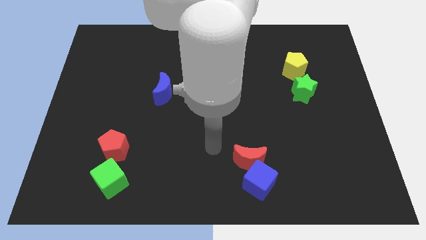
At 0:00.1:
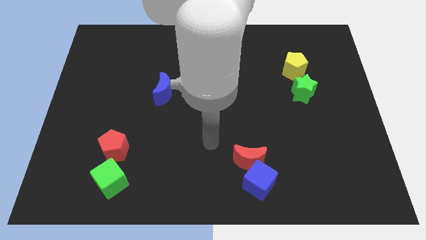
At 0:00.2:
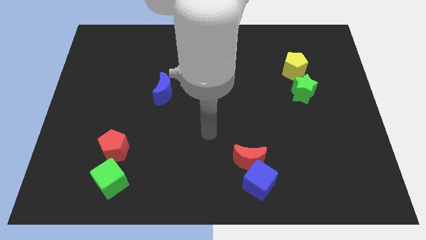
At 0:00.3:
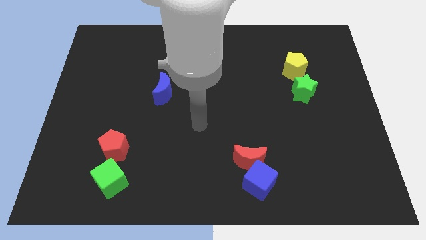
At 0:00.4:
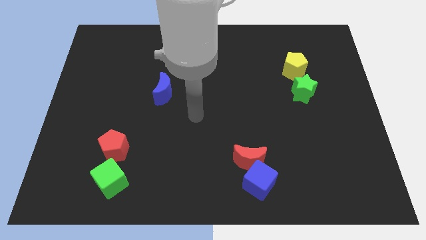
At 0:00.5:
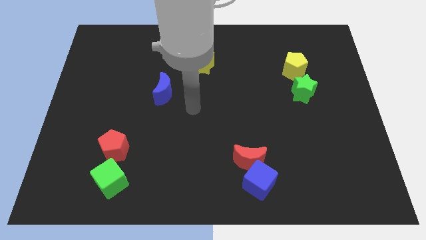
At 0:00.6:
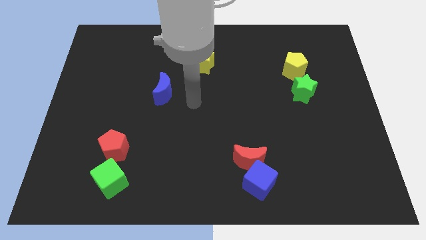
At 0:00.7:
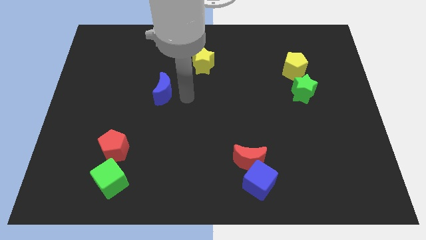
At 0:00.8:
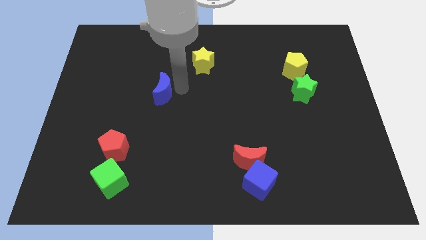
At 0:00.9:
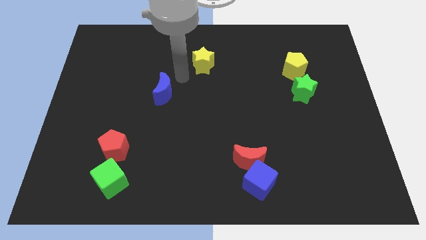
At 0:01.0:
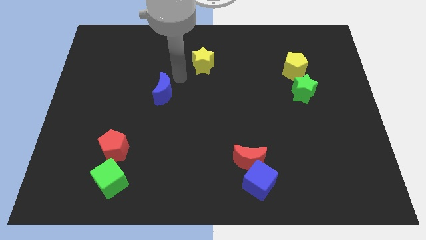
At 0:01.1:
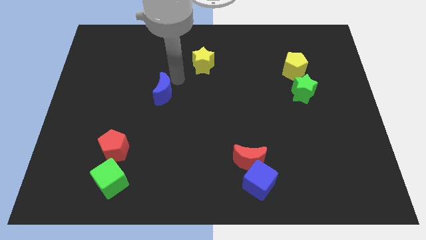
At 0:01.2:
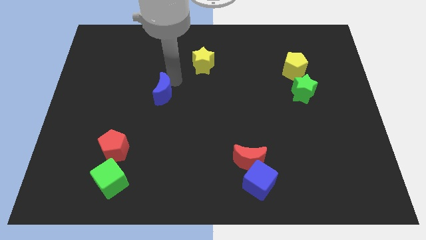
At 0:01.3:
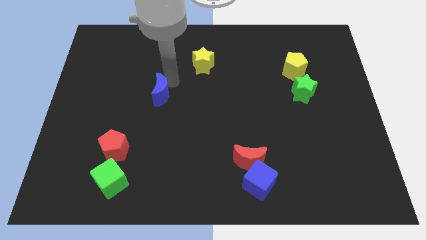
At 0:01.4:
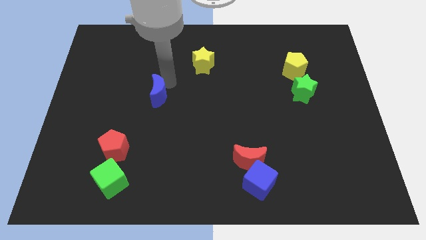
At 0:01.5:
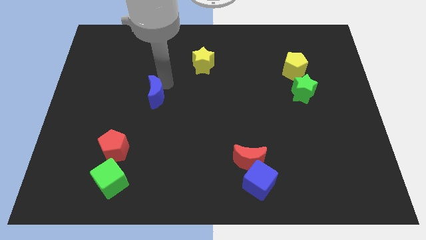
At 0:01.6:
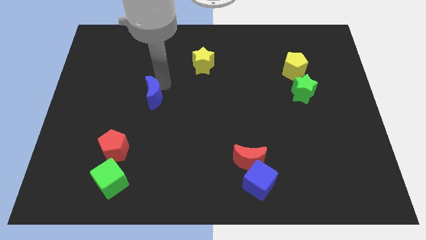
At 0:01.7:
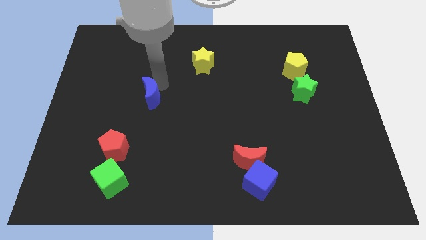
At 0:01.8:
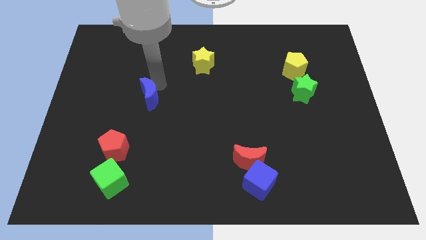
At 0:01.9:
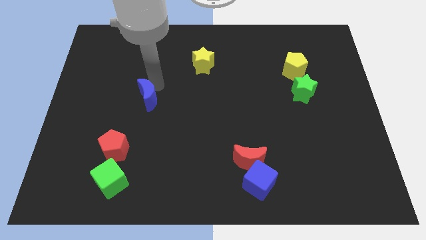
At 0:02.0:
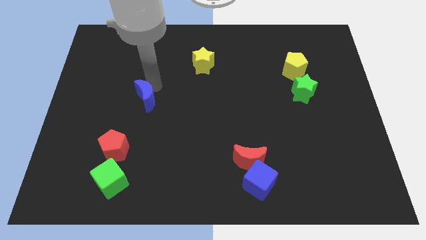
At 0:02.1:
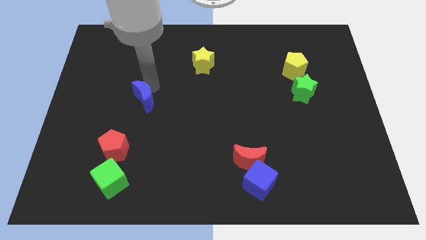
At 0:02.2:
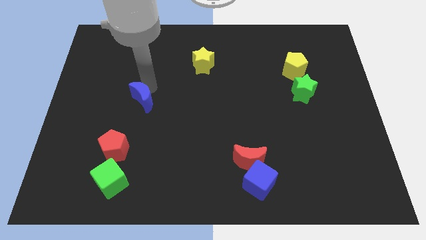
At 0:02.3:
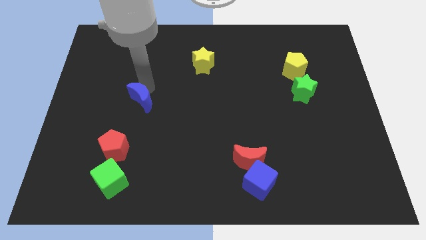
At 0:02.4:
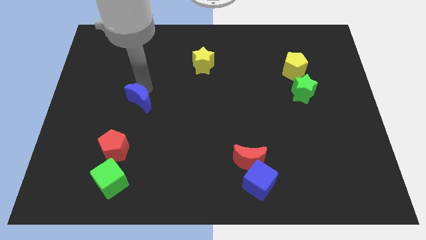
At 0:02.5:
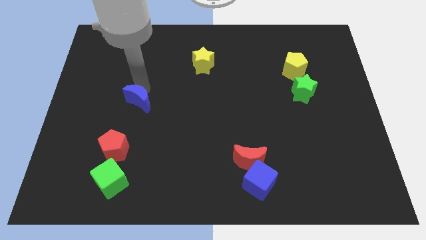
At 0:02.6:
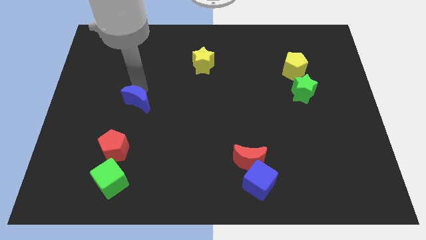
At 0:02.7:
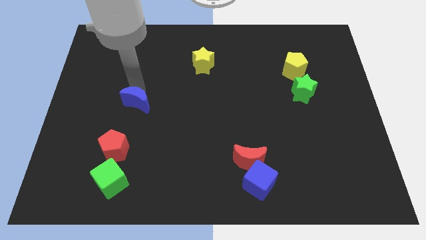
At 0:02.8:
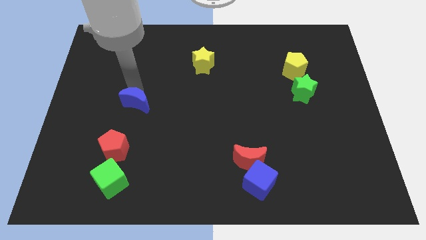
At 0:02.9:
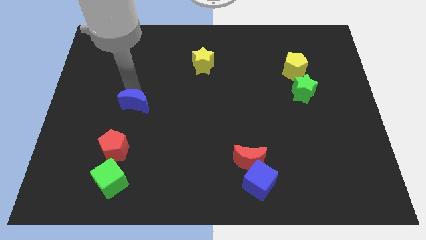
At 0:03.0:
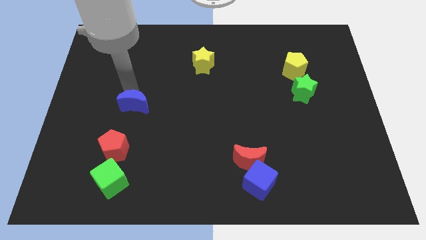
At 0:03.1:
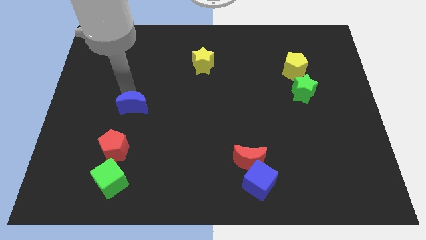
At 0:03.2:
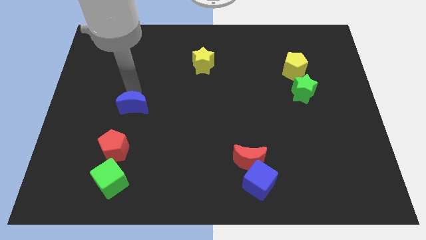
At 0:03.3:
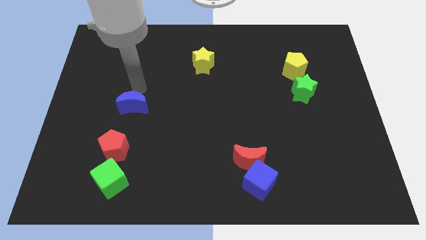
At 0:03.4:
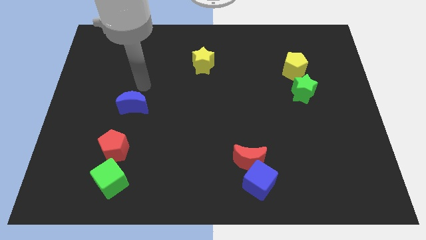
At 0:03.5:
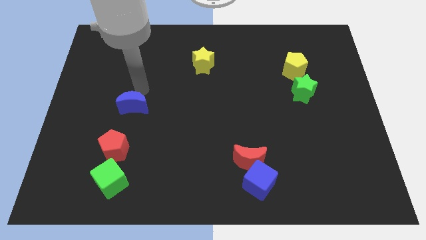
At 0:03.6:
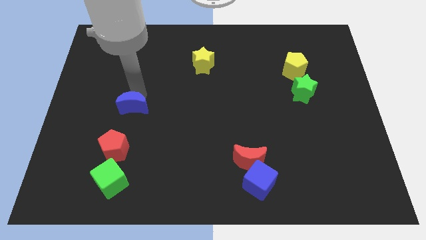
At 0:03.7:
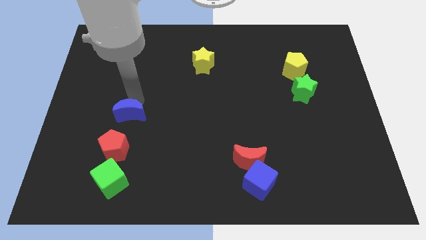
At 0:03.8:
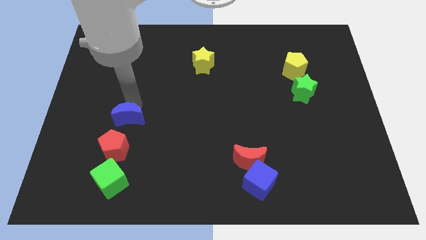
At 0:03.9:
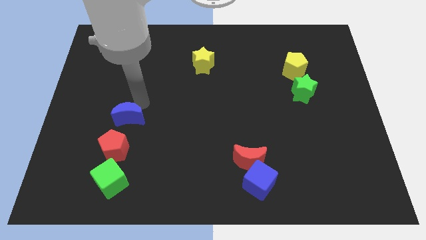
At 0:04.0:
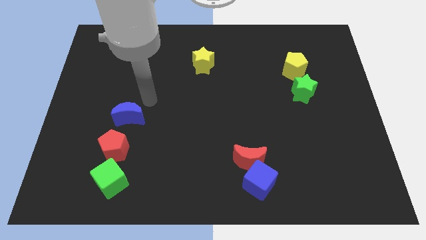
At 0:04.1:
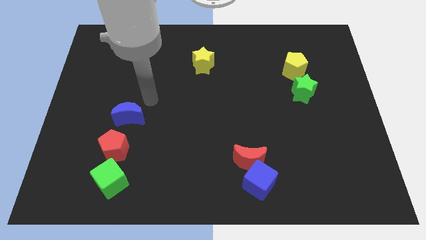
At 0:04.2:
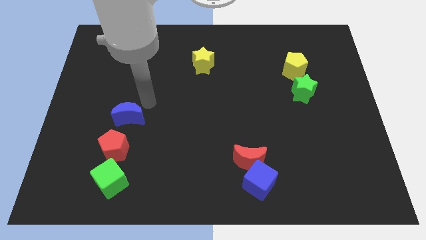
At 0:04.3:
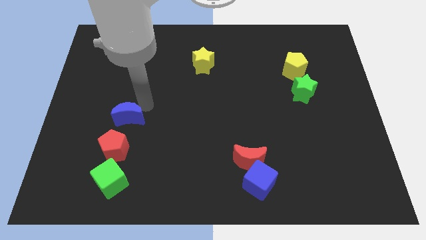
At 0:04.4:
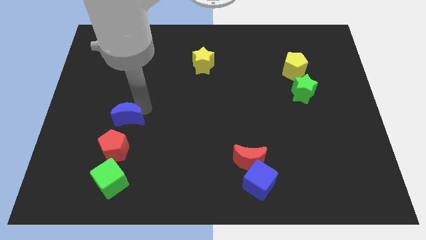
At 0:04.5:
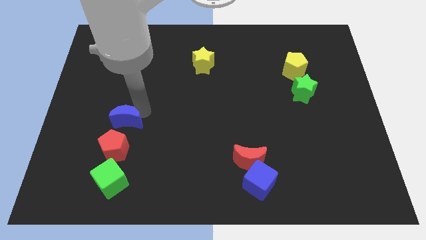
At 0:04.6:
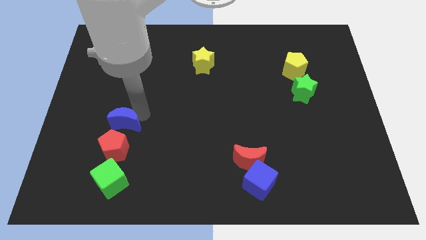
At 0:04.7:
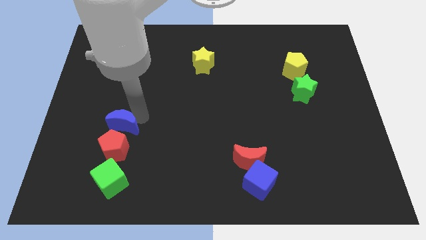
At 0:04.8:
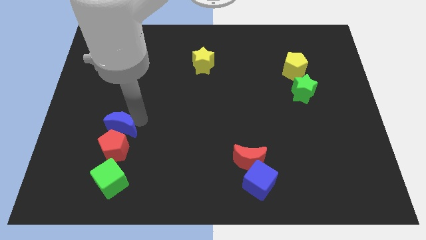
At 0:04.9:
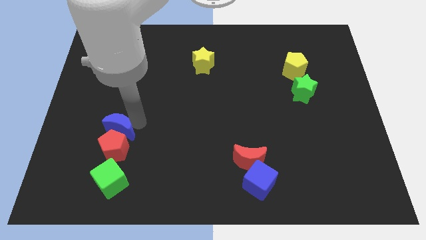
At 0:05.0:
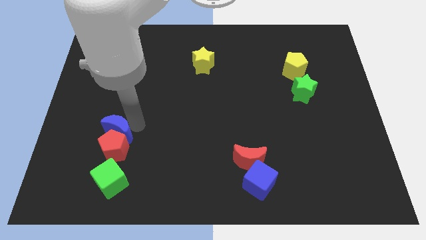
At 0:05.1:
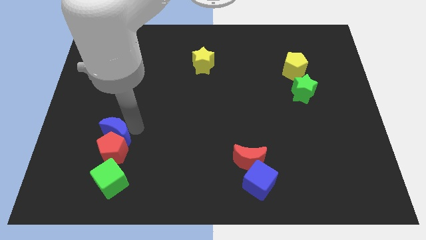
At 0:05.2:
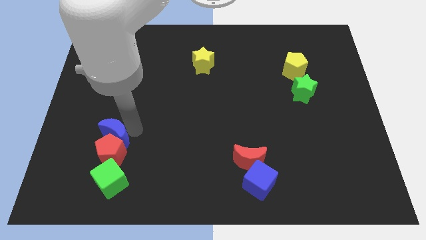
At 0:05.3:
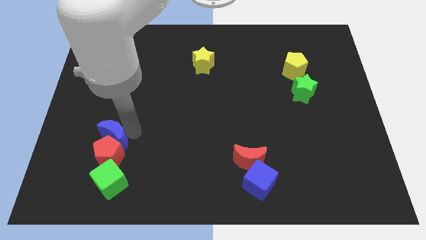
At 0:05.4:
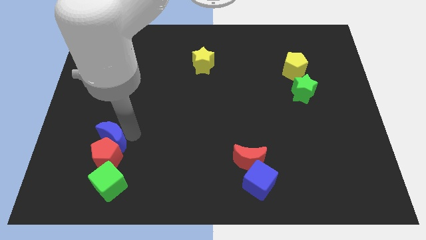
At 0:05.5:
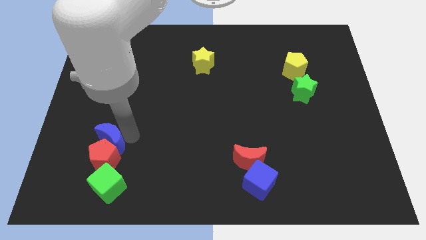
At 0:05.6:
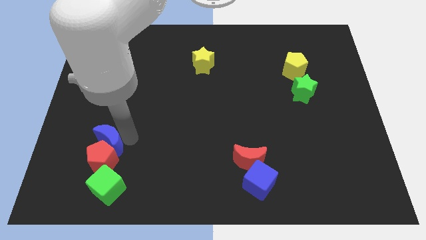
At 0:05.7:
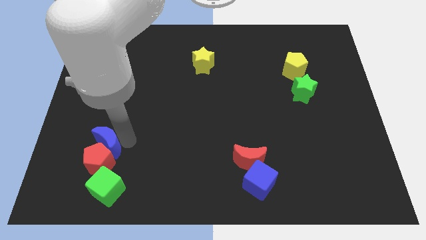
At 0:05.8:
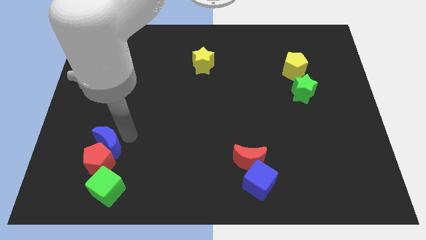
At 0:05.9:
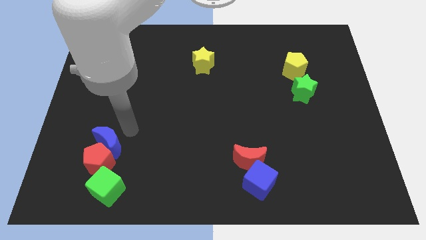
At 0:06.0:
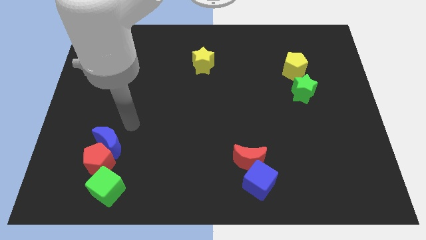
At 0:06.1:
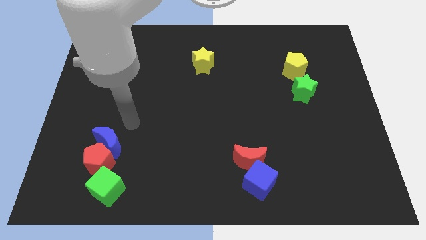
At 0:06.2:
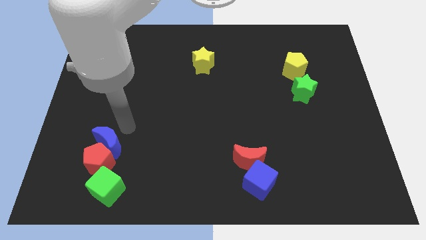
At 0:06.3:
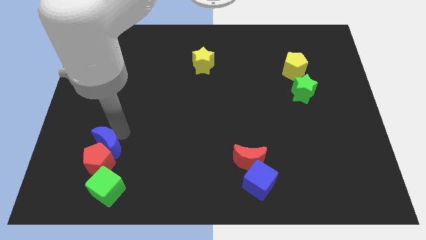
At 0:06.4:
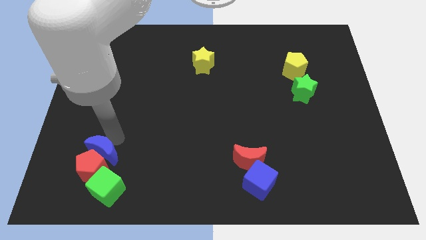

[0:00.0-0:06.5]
put the blue moon diagonally up and to the left of the green cube

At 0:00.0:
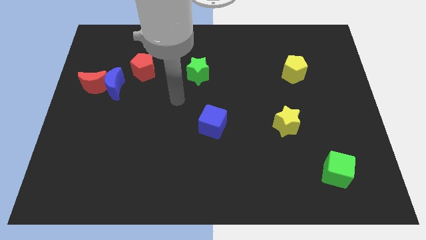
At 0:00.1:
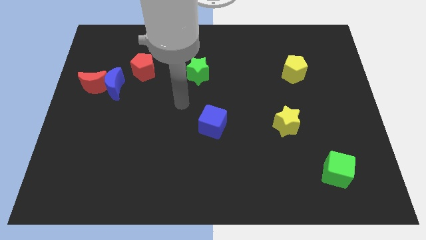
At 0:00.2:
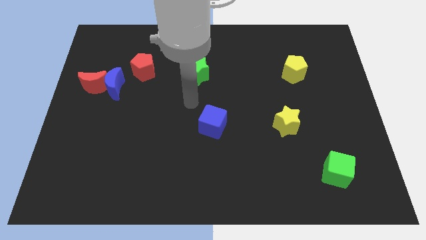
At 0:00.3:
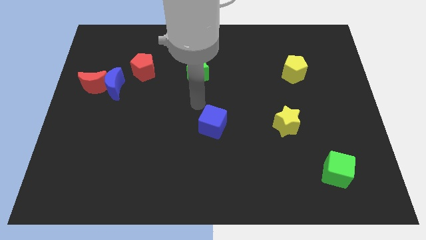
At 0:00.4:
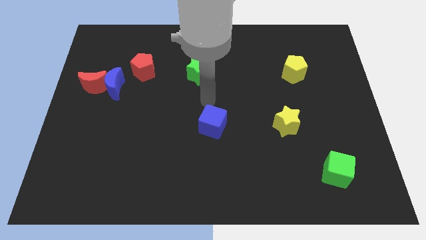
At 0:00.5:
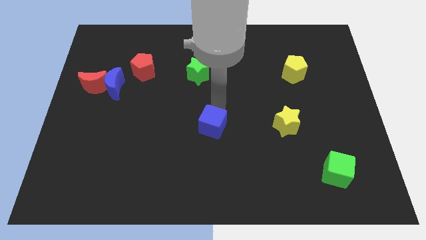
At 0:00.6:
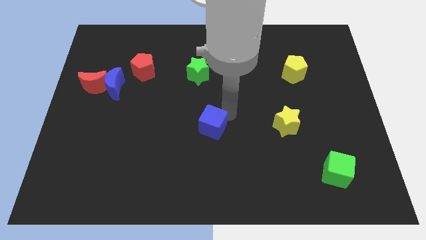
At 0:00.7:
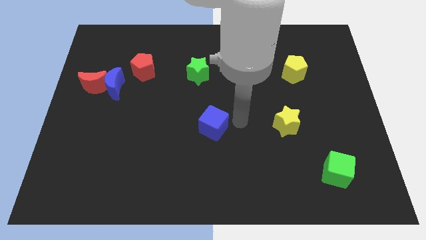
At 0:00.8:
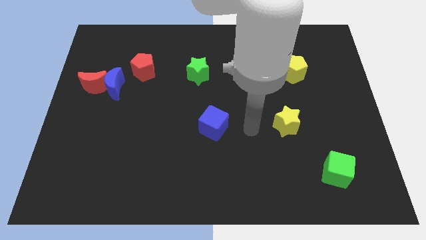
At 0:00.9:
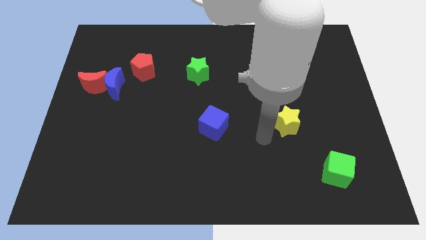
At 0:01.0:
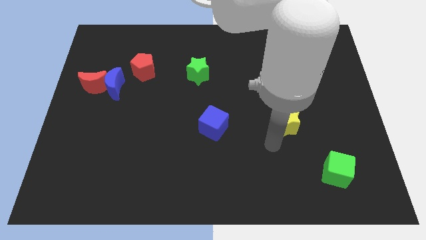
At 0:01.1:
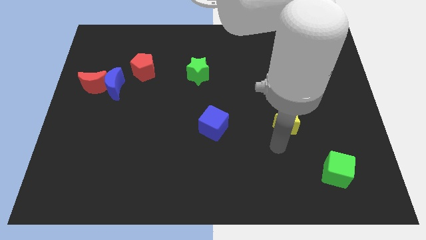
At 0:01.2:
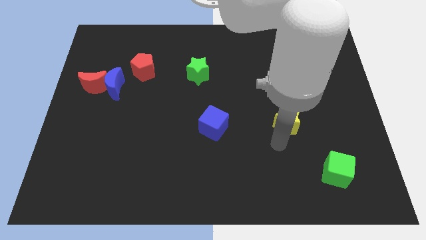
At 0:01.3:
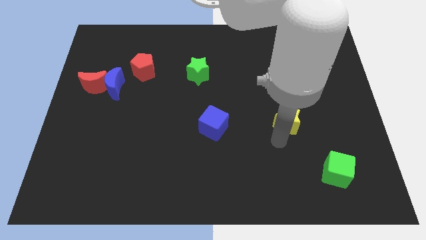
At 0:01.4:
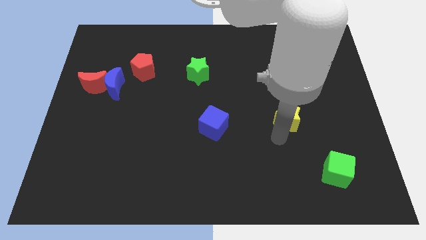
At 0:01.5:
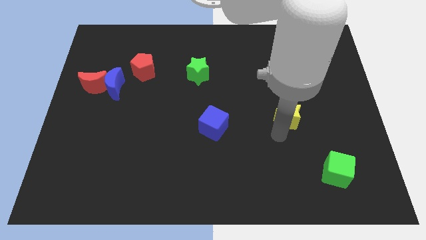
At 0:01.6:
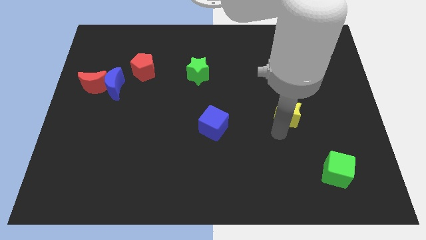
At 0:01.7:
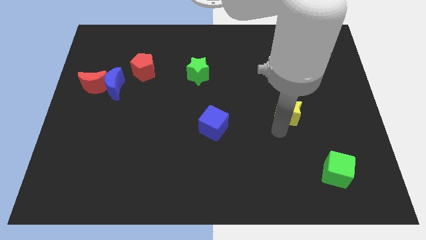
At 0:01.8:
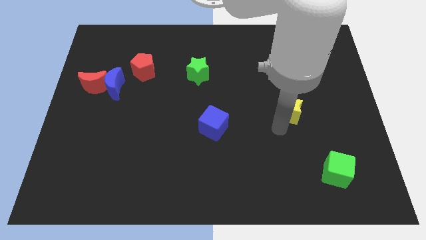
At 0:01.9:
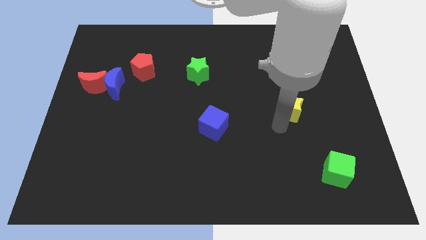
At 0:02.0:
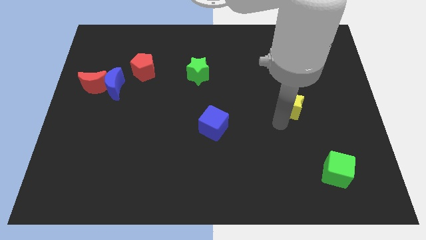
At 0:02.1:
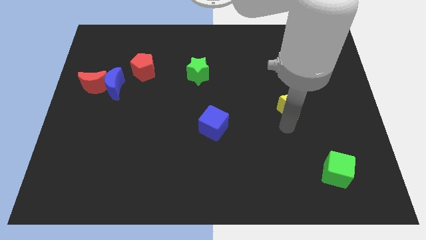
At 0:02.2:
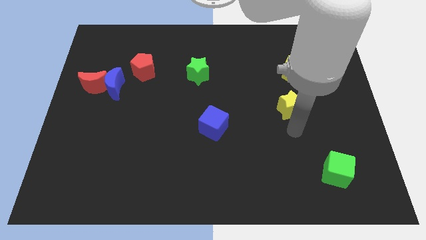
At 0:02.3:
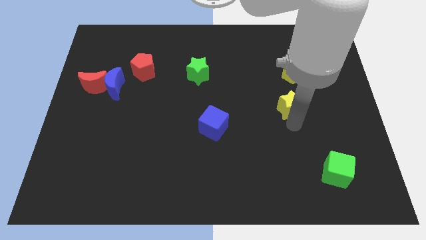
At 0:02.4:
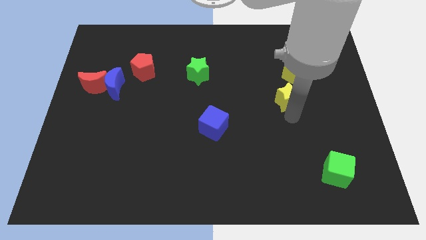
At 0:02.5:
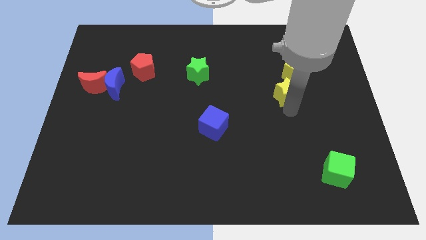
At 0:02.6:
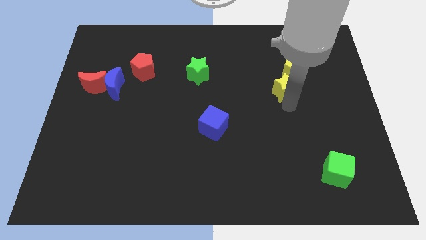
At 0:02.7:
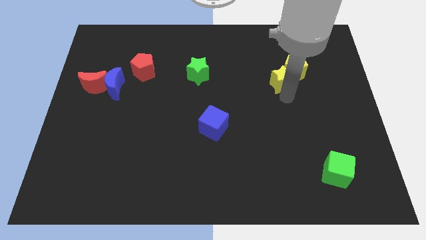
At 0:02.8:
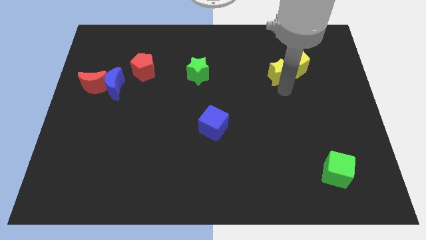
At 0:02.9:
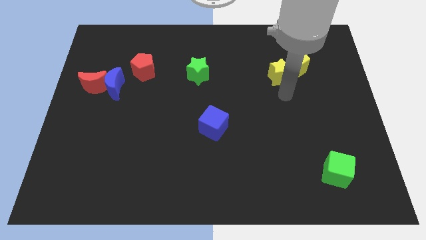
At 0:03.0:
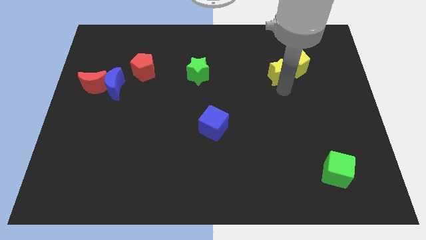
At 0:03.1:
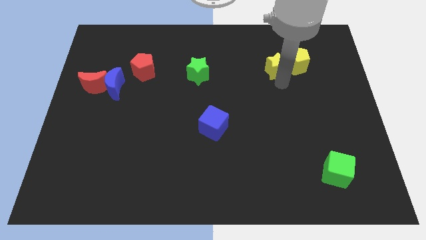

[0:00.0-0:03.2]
put the yellow star to the top left side of the yellow pentagon
